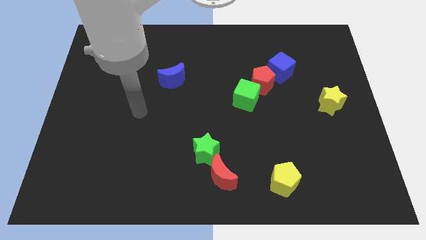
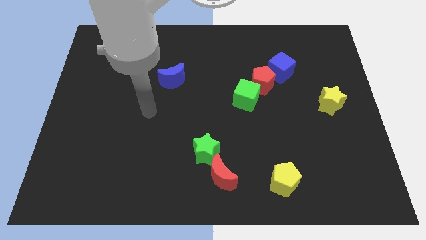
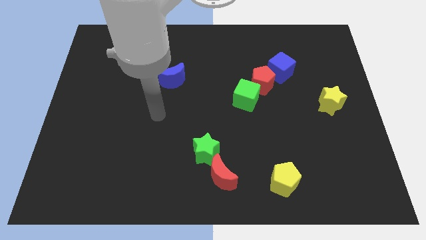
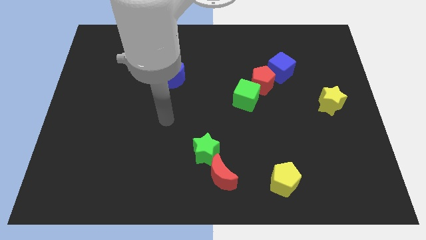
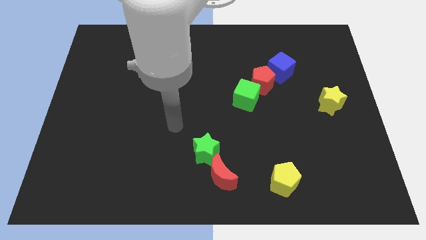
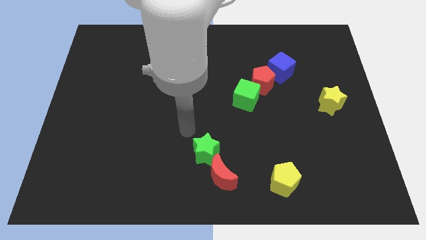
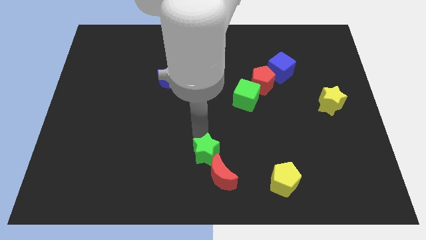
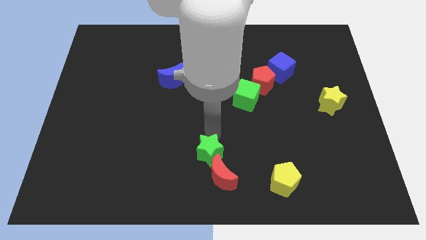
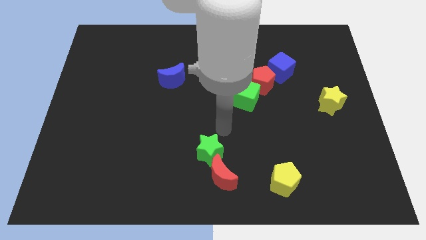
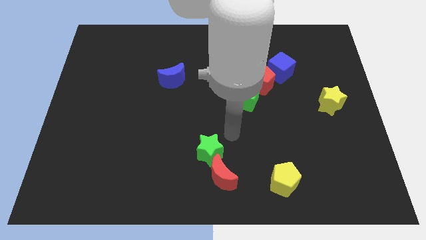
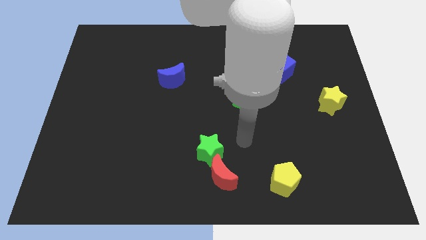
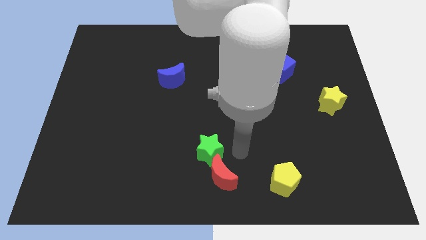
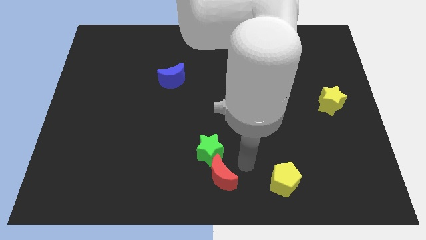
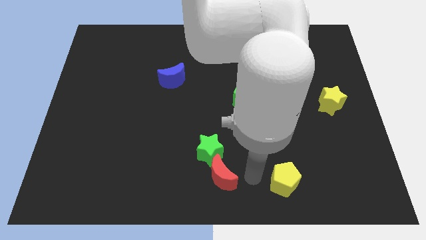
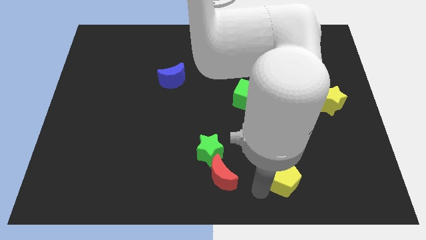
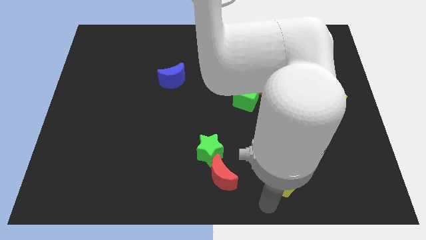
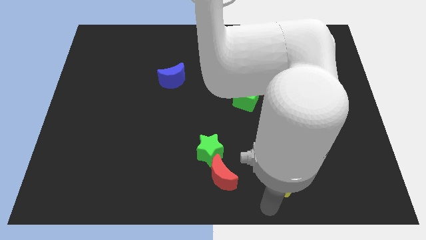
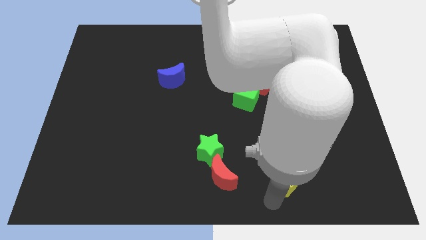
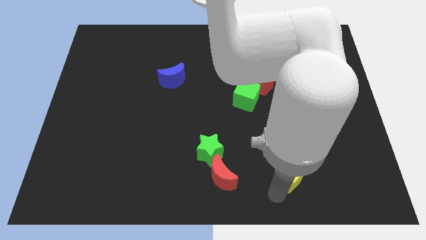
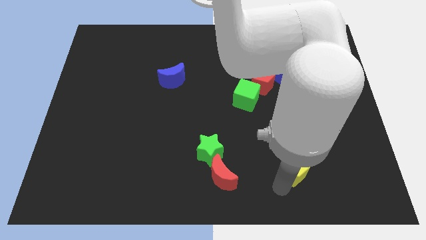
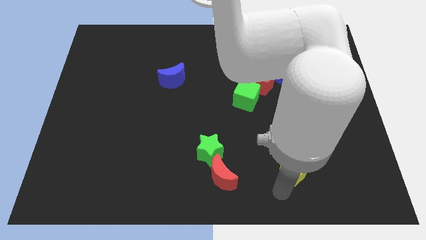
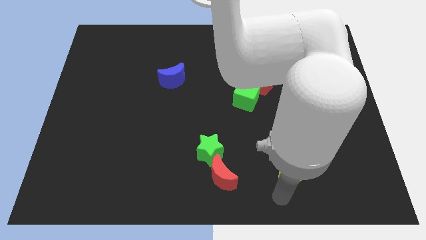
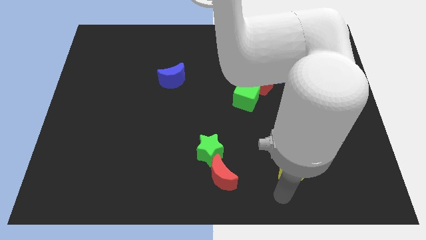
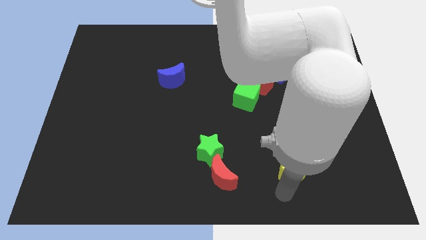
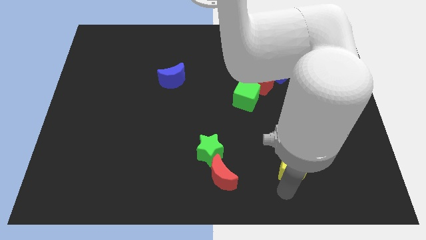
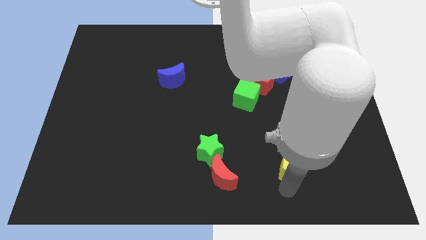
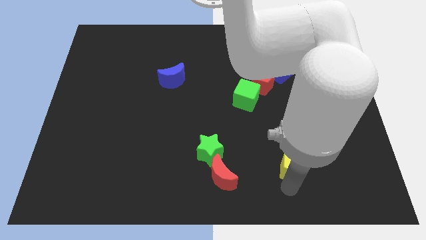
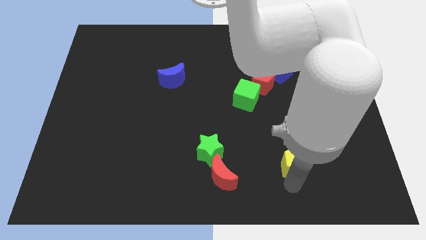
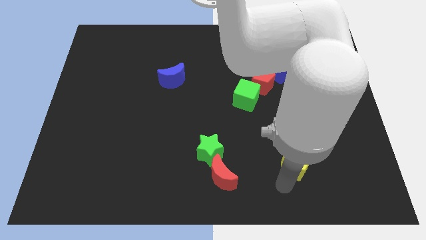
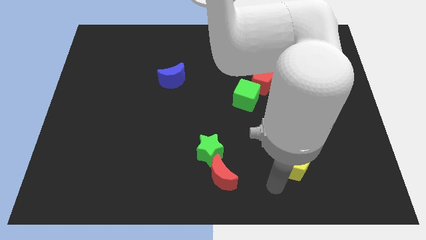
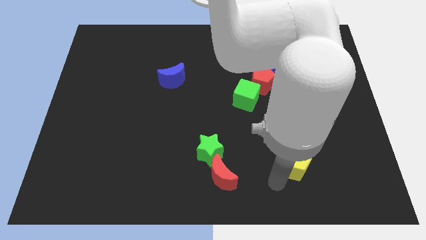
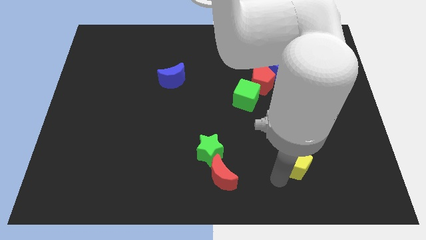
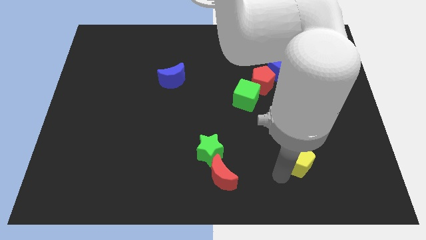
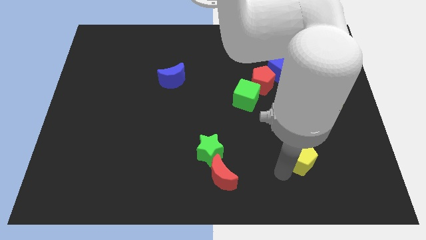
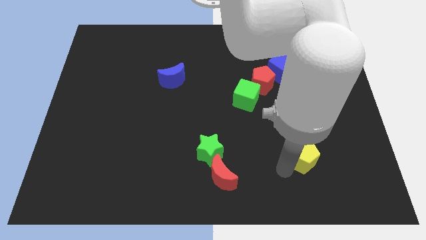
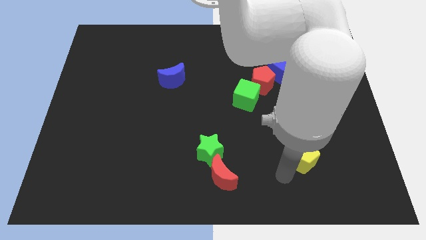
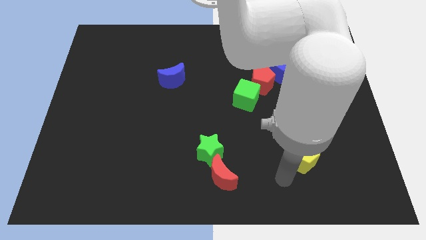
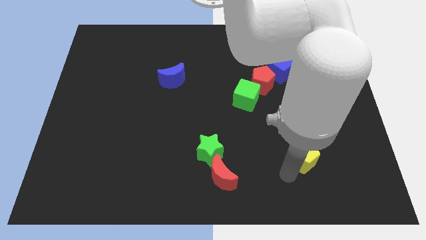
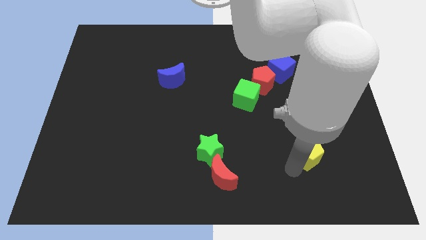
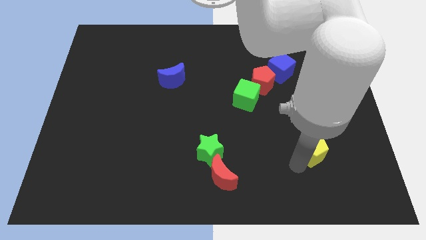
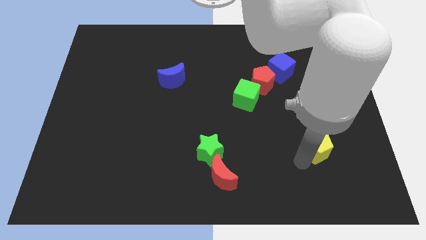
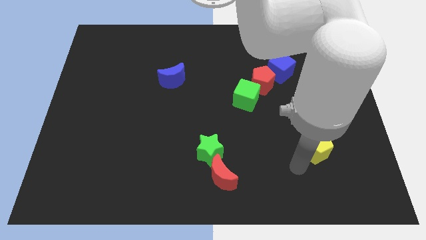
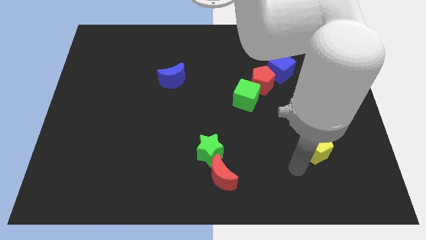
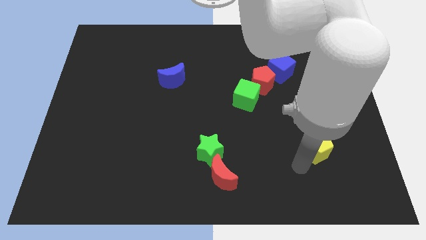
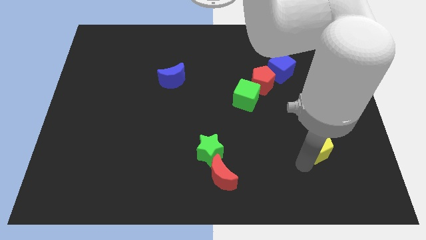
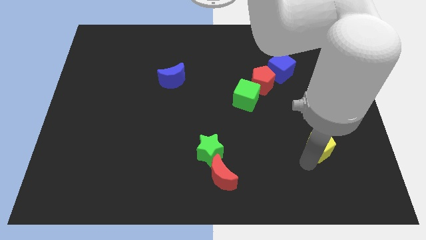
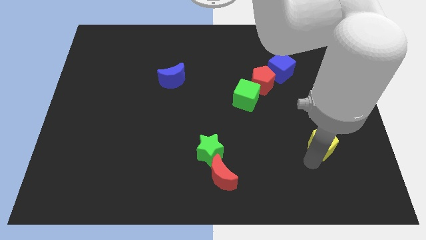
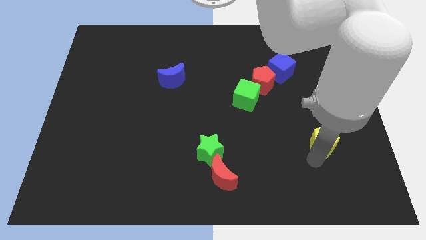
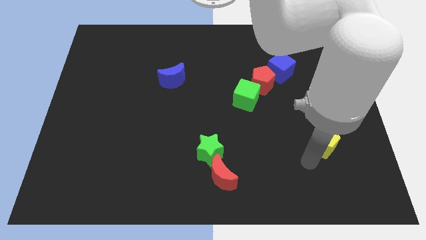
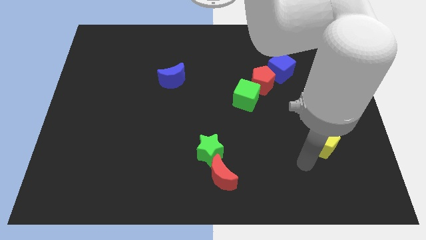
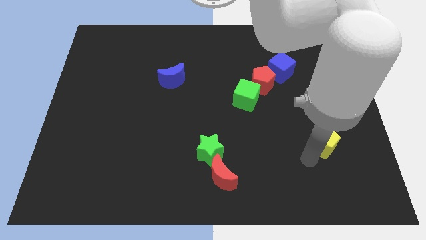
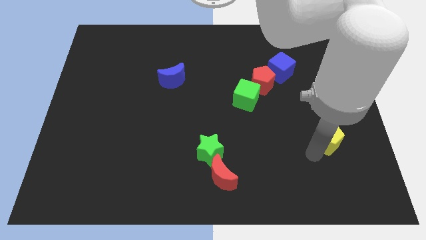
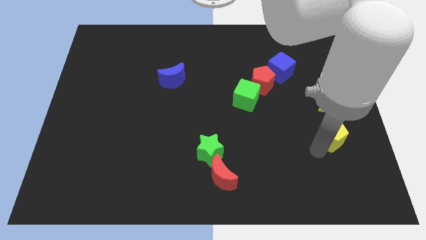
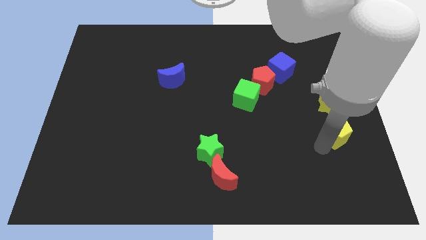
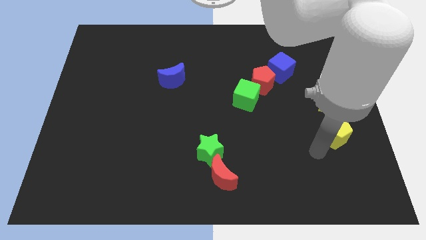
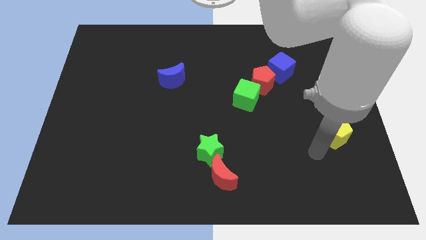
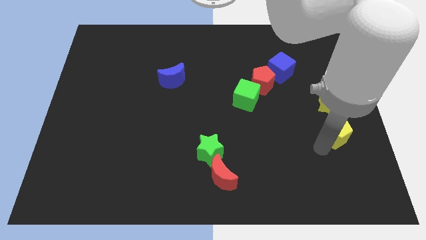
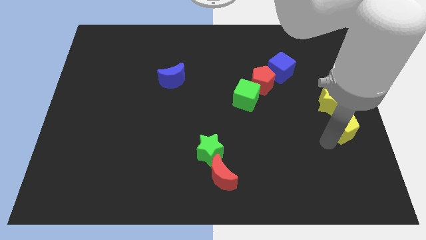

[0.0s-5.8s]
push the yellow pentagon to the center right

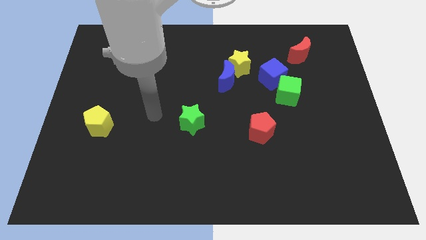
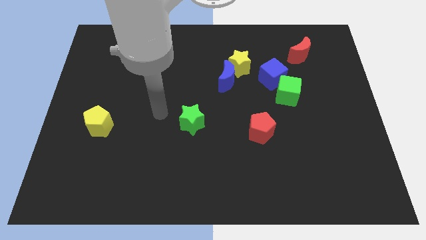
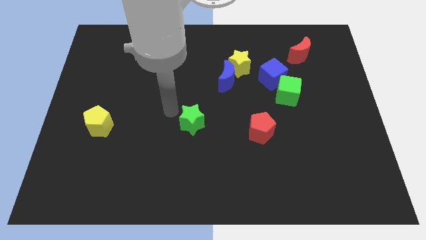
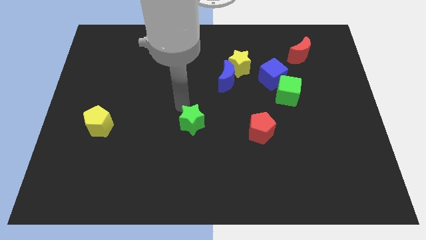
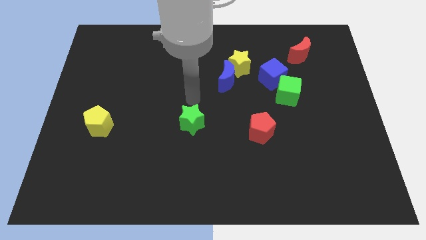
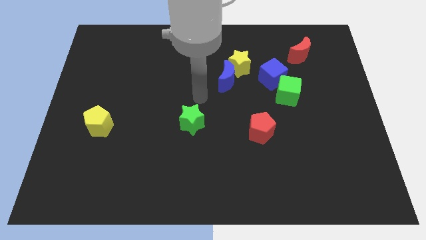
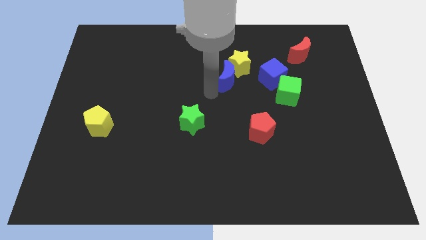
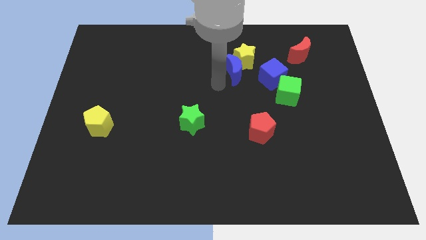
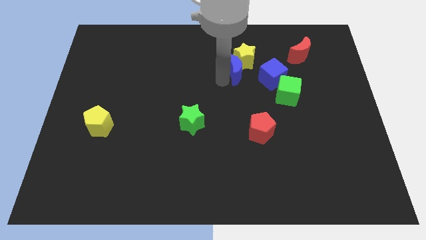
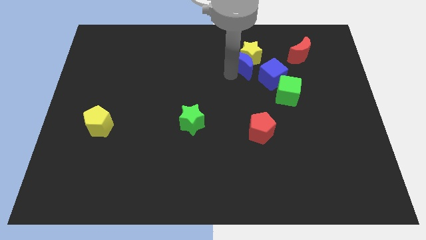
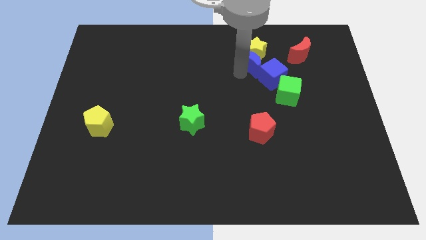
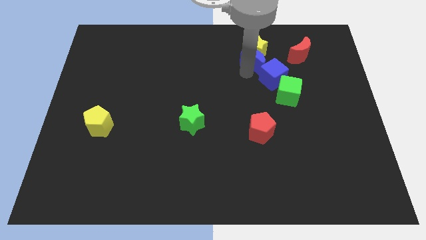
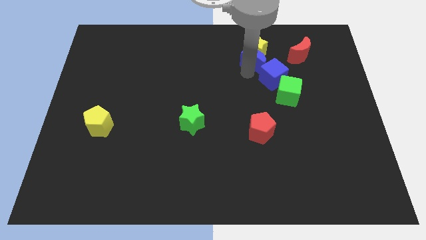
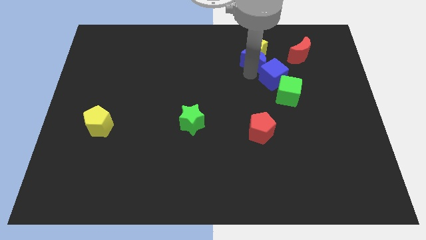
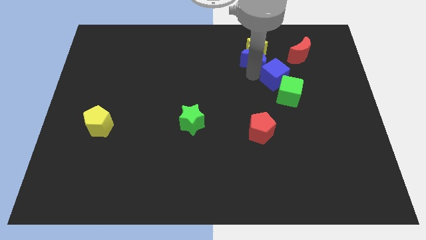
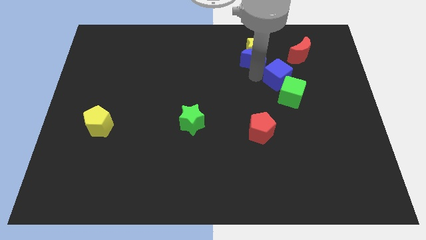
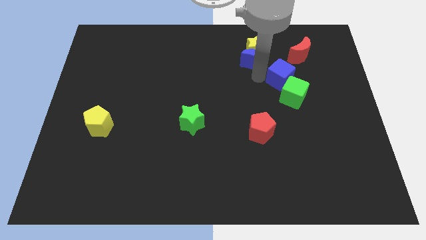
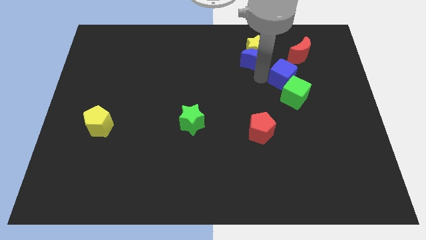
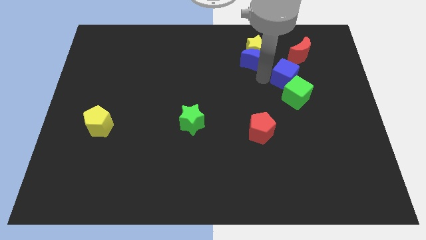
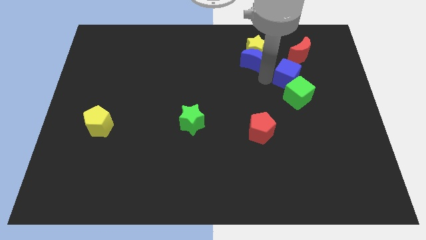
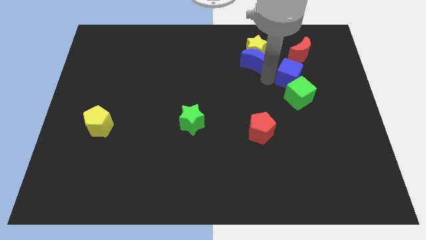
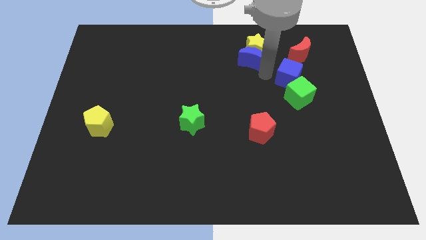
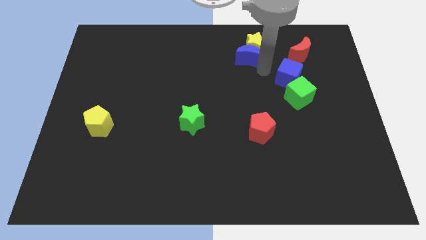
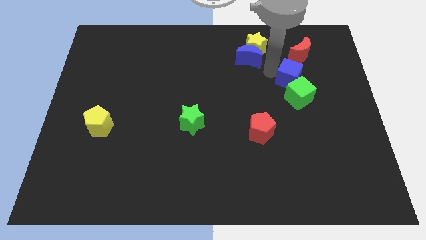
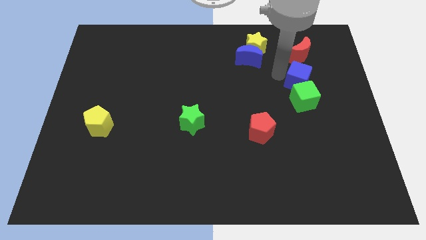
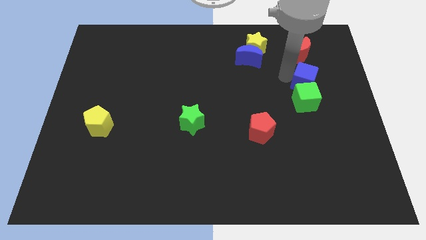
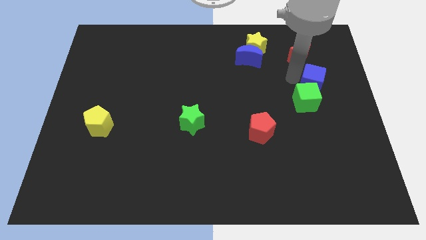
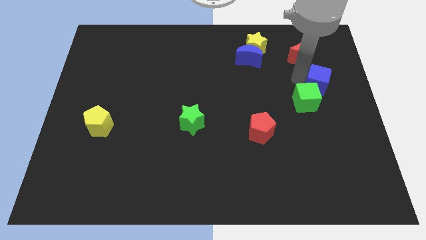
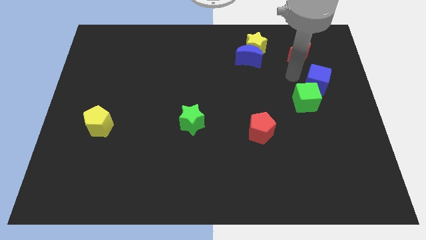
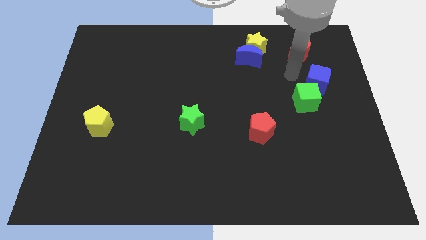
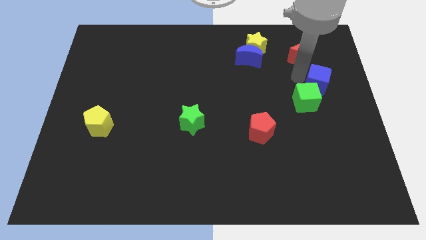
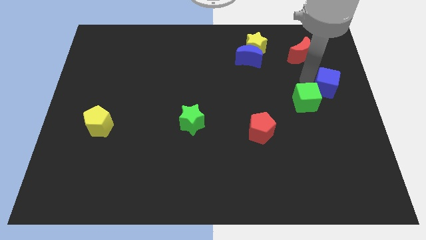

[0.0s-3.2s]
put the blue cube to the right side of the board
